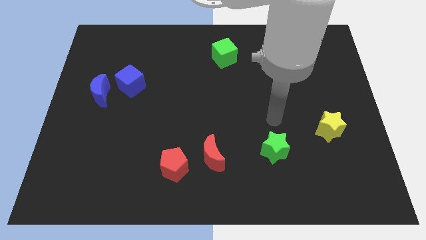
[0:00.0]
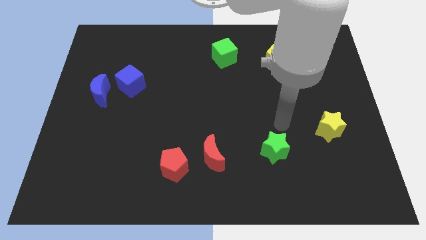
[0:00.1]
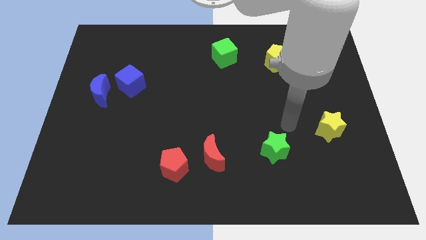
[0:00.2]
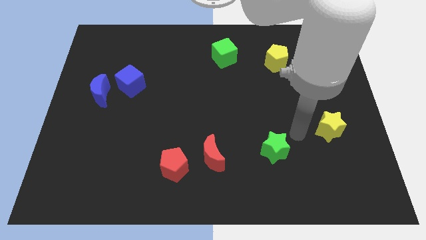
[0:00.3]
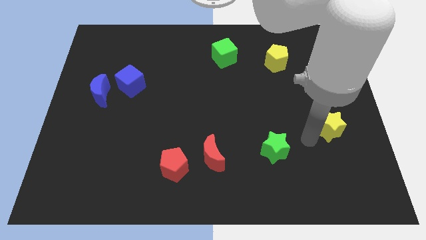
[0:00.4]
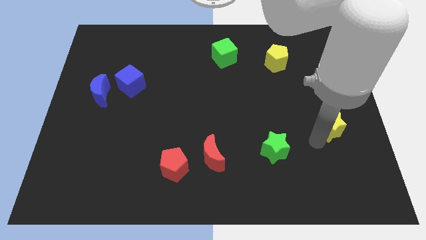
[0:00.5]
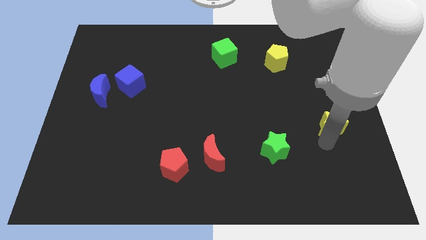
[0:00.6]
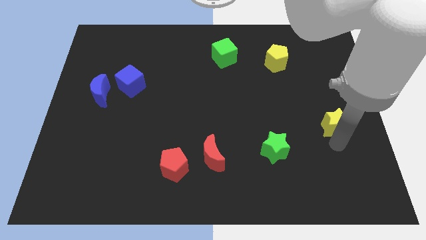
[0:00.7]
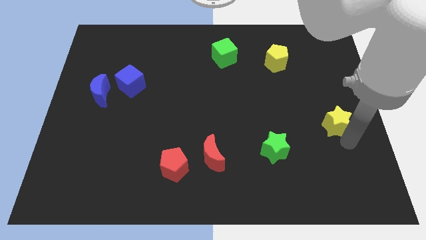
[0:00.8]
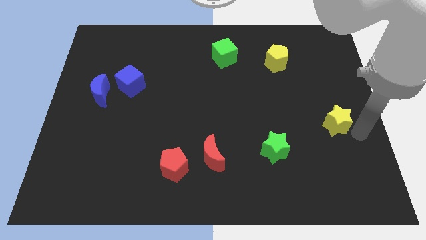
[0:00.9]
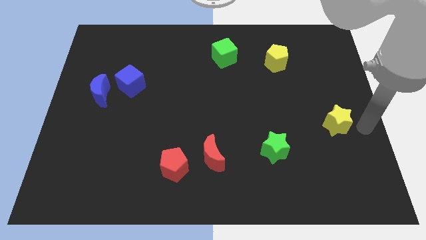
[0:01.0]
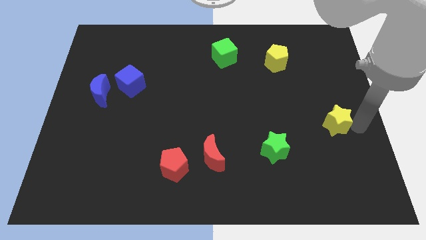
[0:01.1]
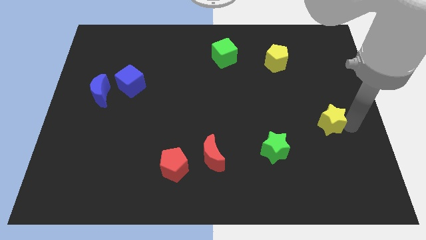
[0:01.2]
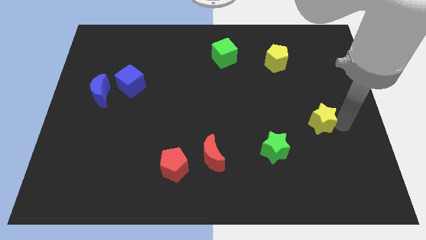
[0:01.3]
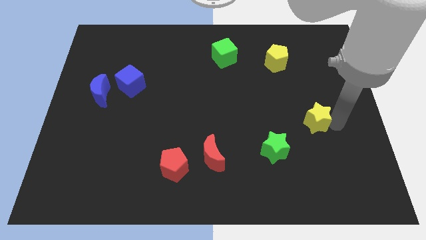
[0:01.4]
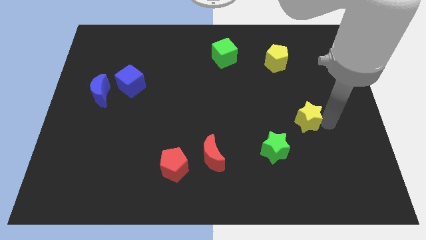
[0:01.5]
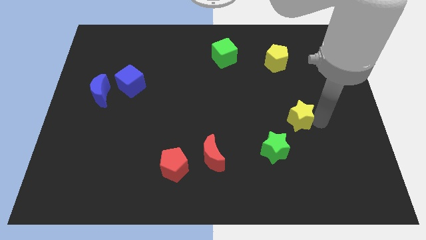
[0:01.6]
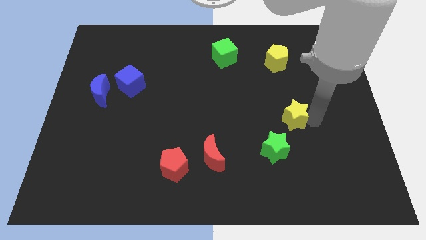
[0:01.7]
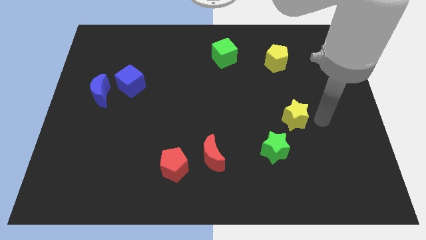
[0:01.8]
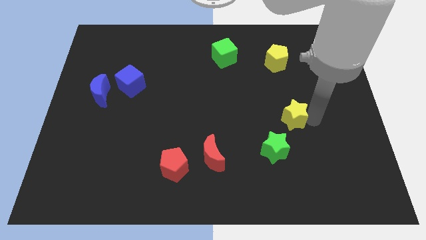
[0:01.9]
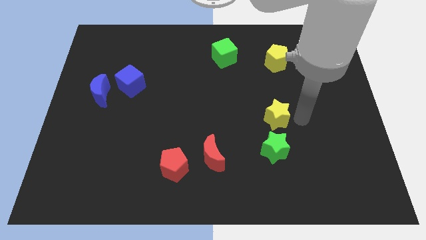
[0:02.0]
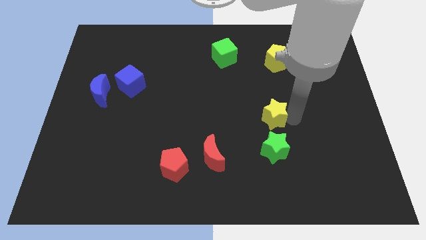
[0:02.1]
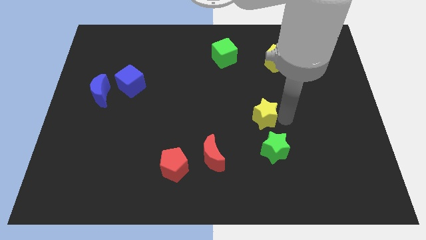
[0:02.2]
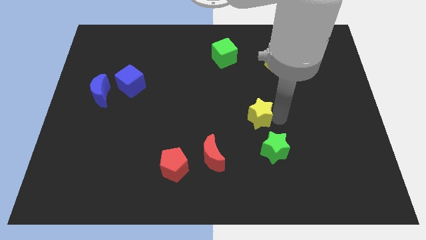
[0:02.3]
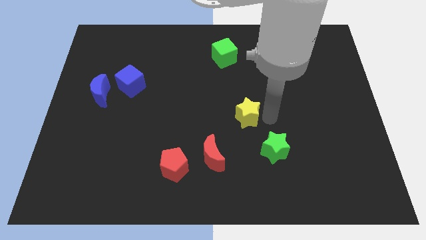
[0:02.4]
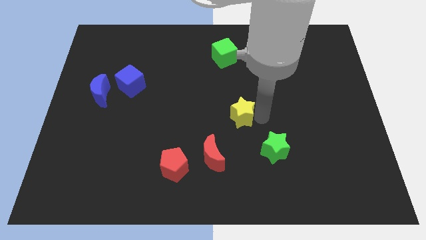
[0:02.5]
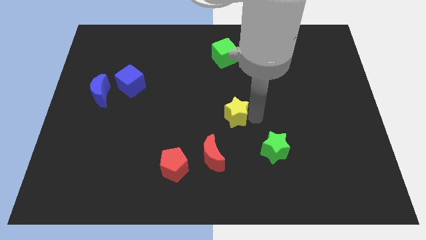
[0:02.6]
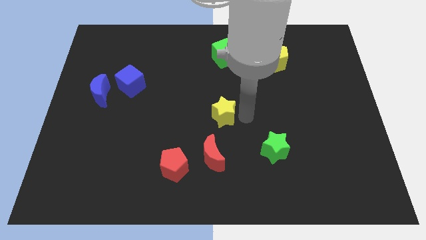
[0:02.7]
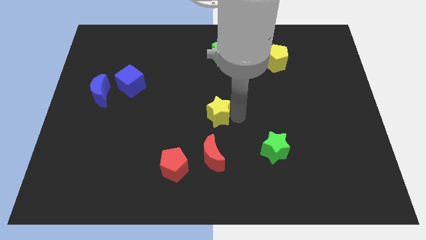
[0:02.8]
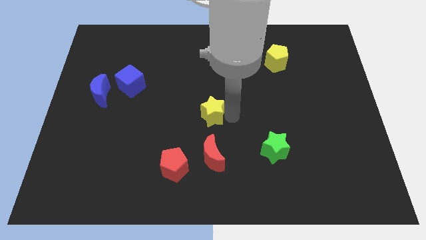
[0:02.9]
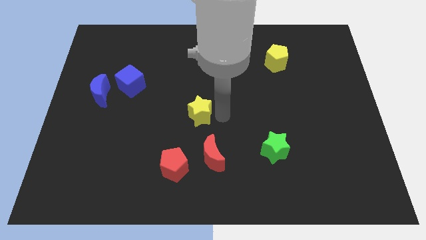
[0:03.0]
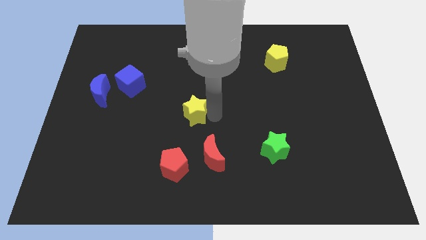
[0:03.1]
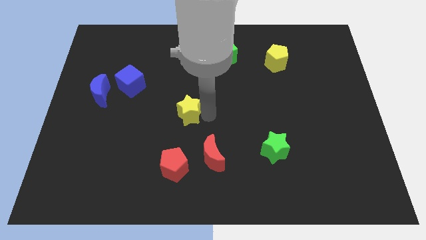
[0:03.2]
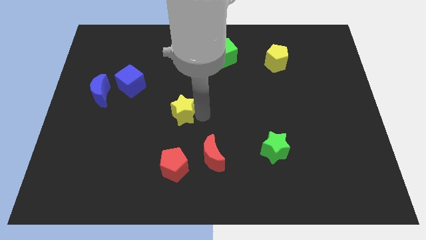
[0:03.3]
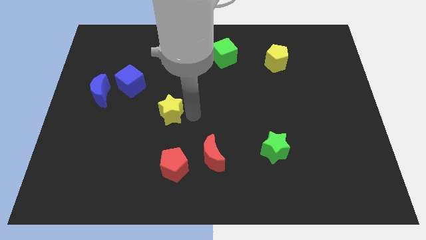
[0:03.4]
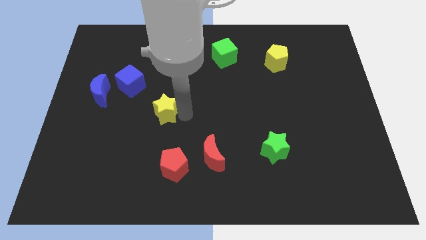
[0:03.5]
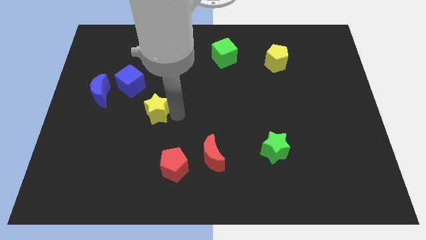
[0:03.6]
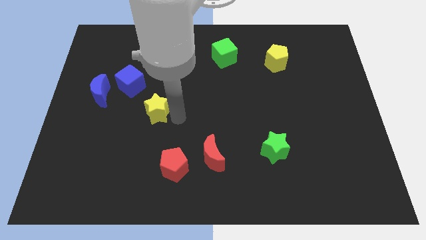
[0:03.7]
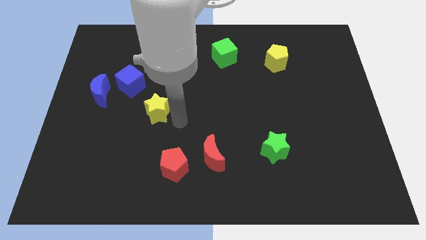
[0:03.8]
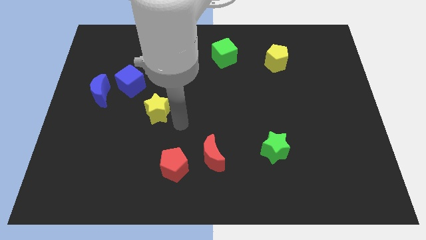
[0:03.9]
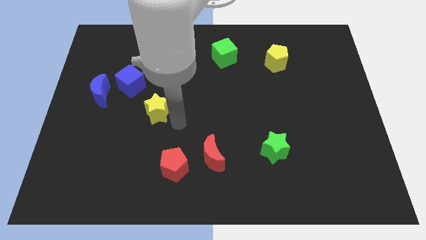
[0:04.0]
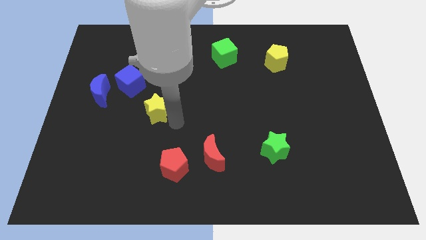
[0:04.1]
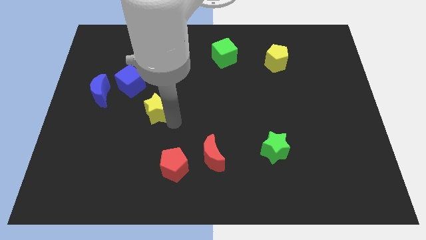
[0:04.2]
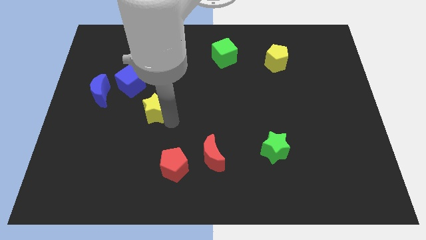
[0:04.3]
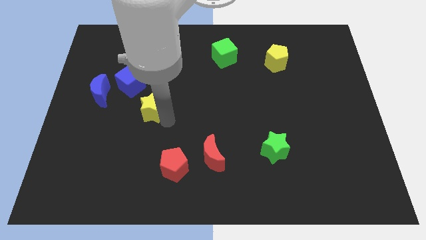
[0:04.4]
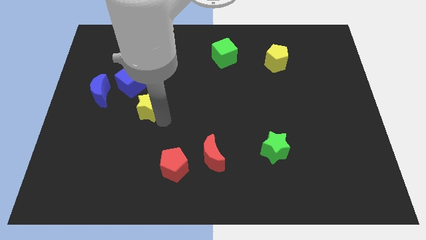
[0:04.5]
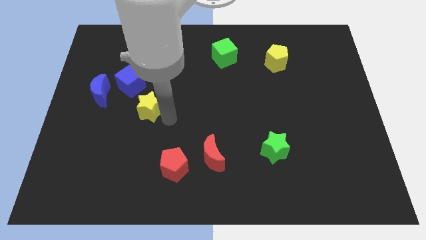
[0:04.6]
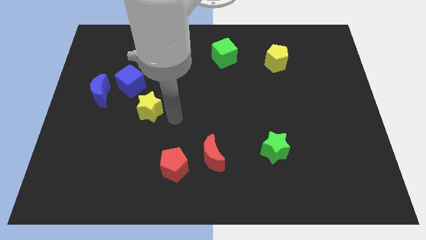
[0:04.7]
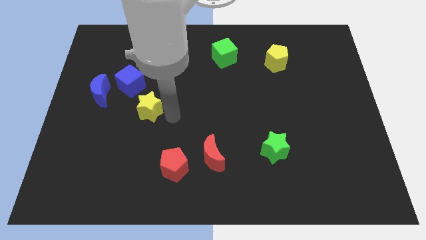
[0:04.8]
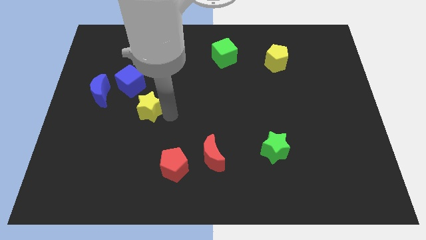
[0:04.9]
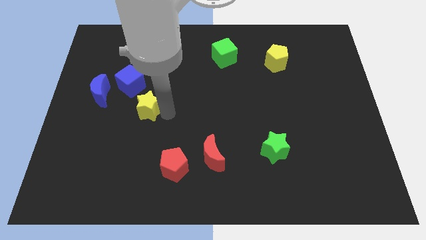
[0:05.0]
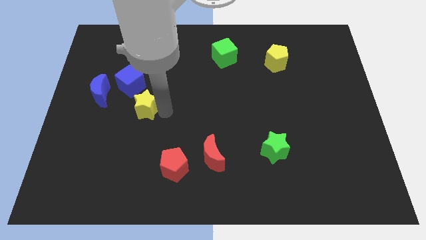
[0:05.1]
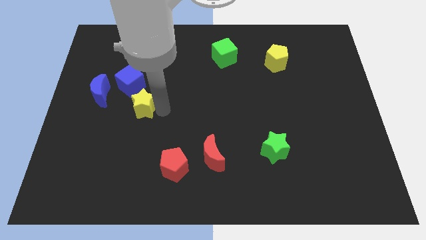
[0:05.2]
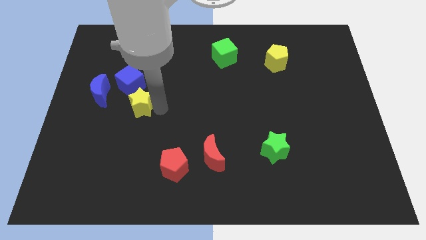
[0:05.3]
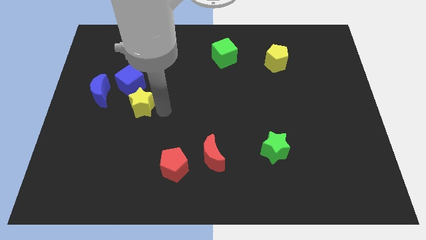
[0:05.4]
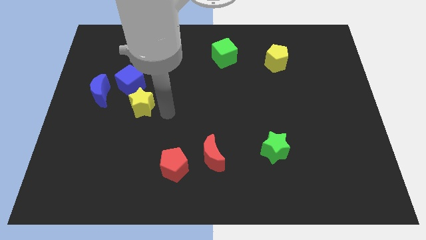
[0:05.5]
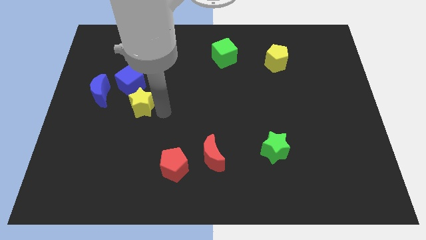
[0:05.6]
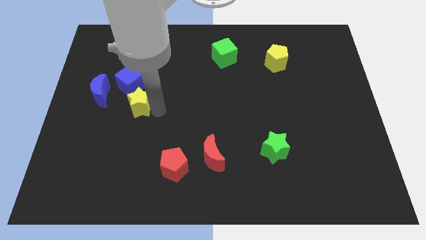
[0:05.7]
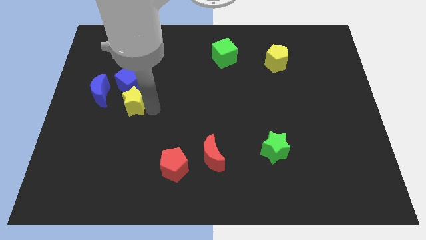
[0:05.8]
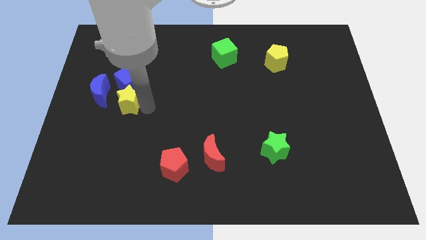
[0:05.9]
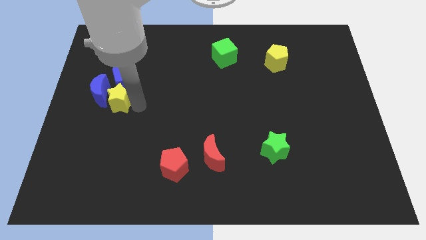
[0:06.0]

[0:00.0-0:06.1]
push the yellow star next to the blue moon

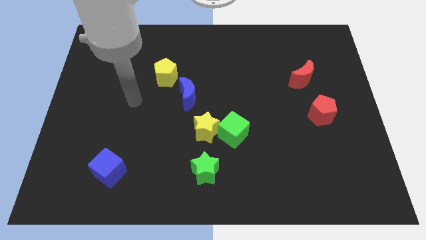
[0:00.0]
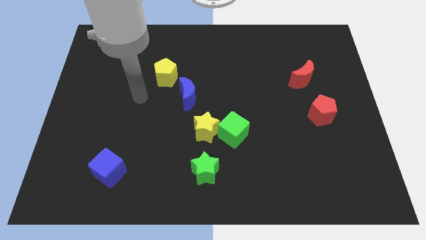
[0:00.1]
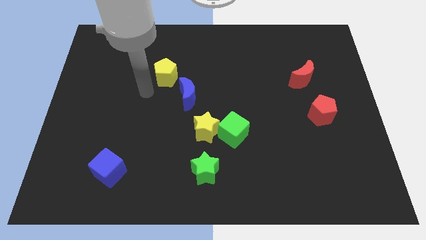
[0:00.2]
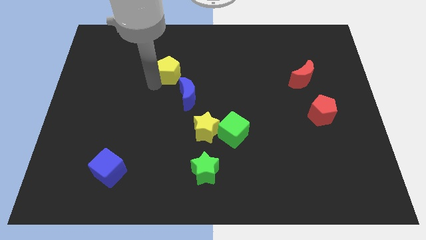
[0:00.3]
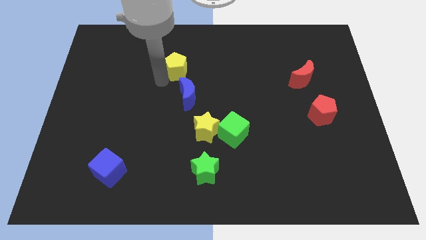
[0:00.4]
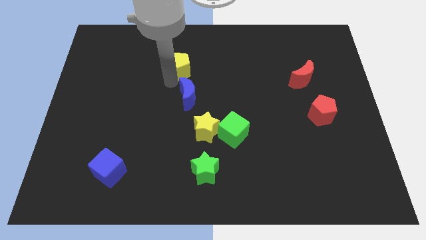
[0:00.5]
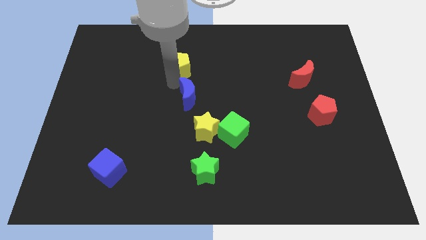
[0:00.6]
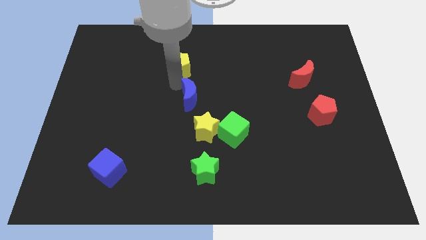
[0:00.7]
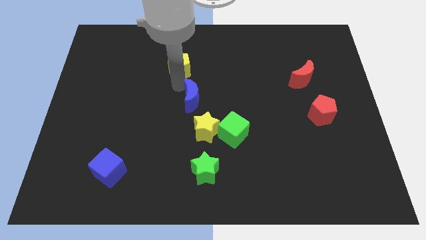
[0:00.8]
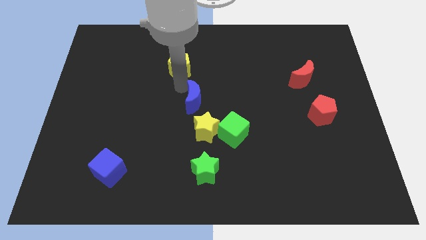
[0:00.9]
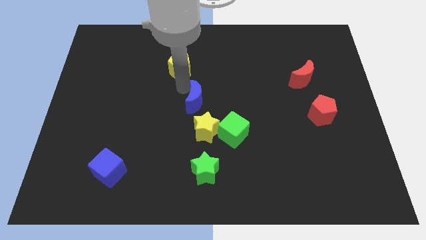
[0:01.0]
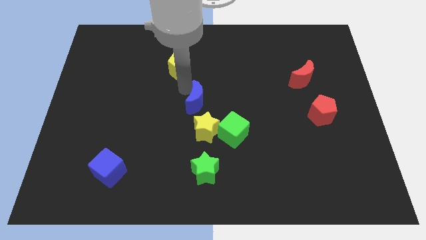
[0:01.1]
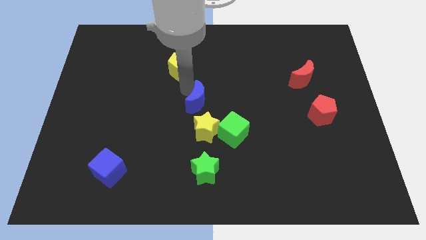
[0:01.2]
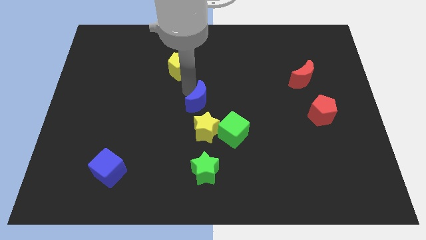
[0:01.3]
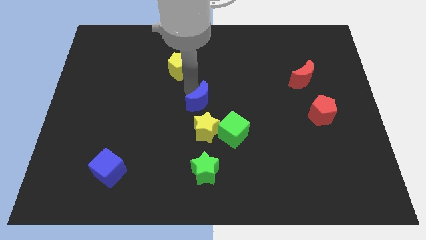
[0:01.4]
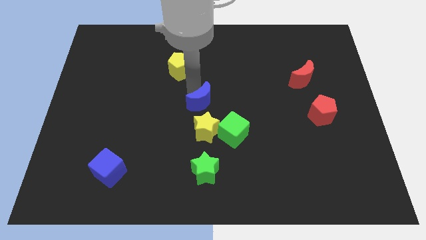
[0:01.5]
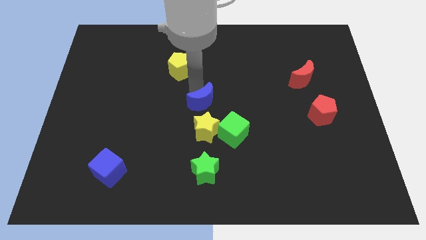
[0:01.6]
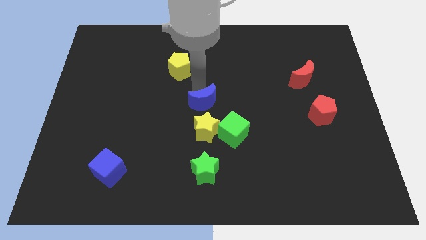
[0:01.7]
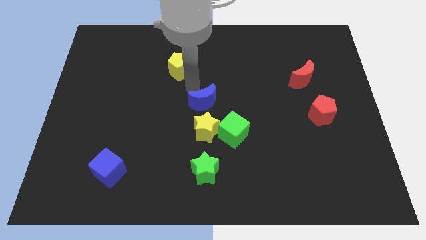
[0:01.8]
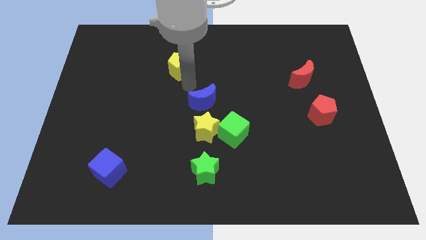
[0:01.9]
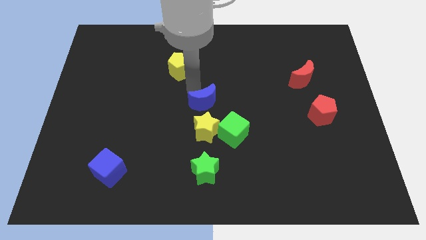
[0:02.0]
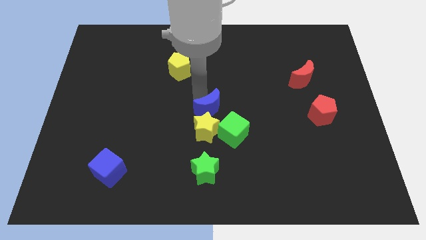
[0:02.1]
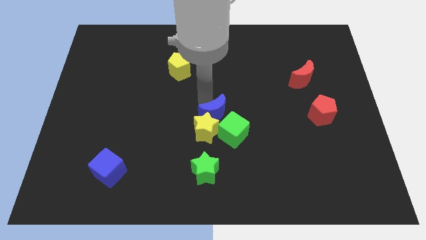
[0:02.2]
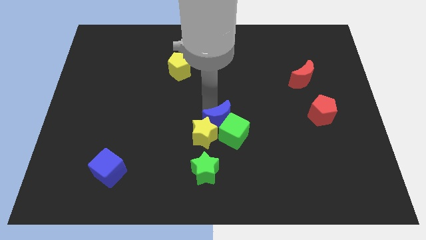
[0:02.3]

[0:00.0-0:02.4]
put the blue moon to the green cube
